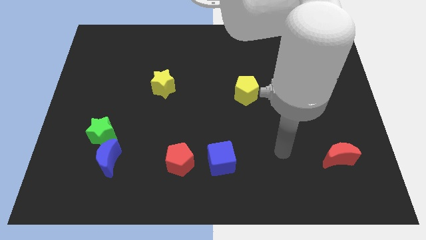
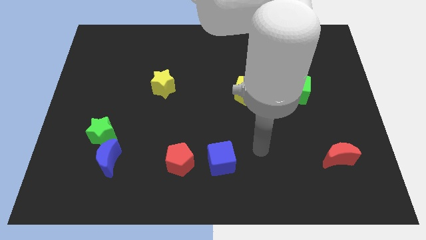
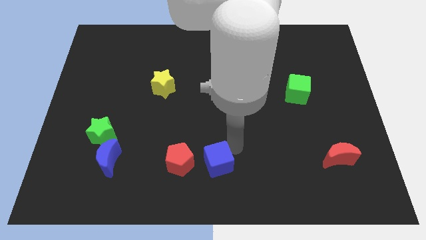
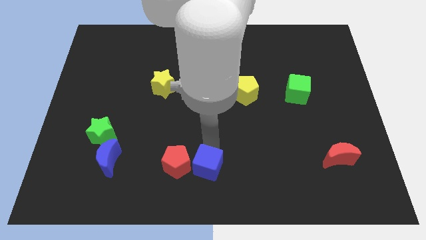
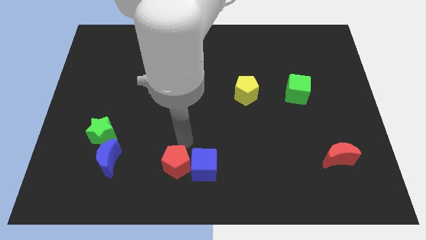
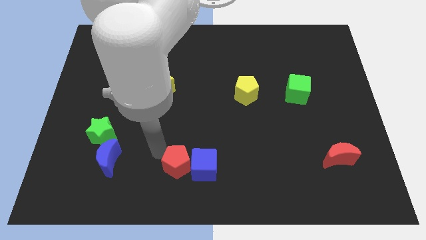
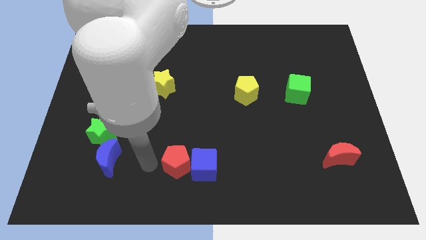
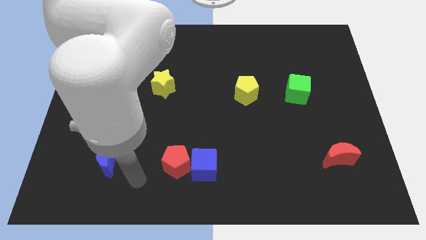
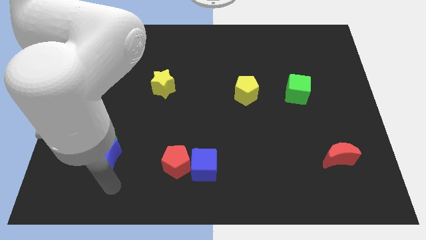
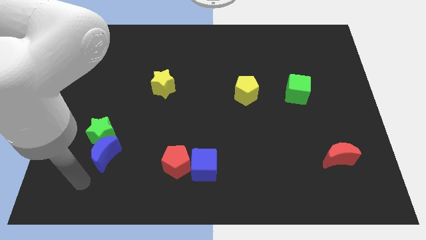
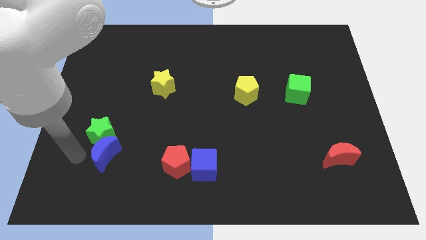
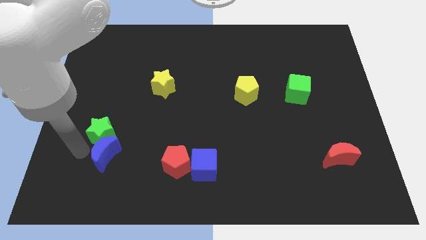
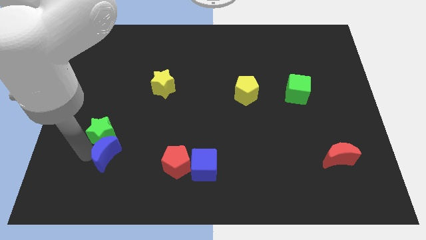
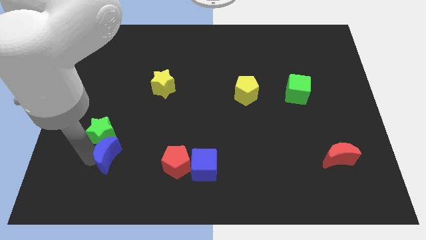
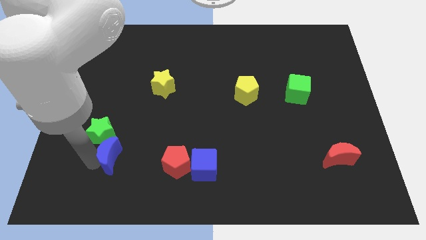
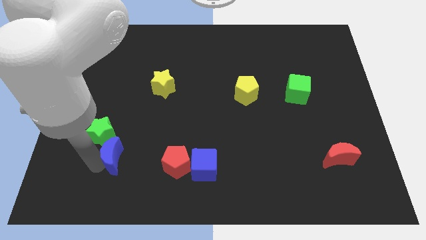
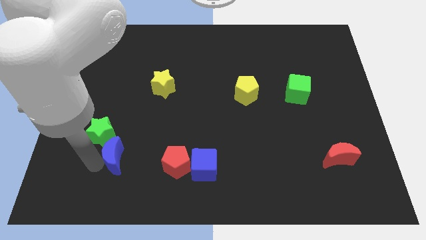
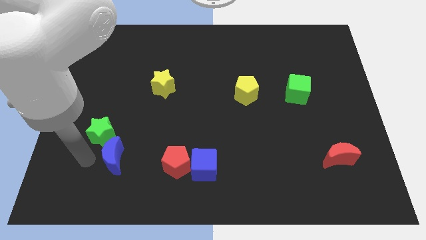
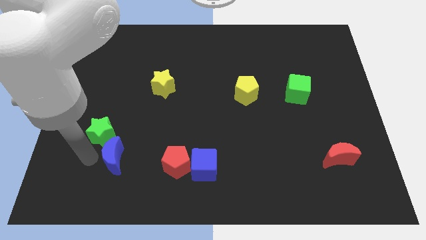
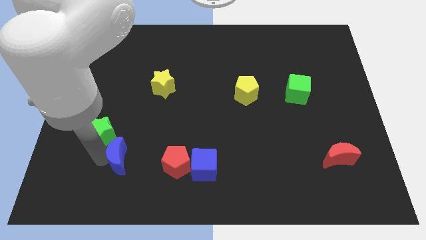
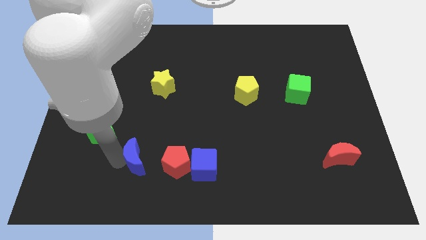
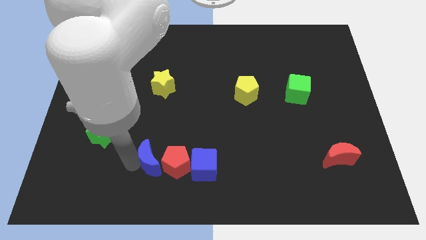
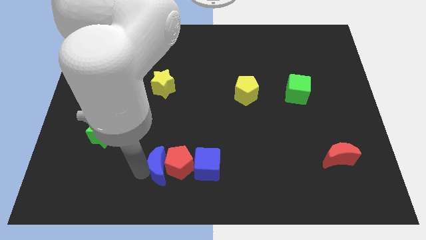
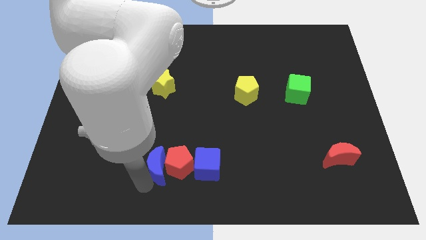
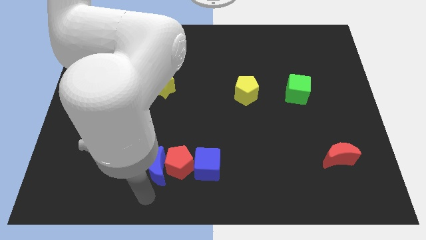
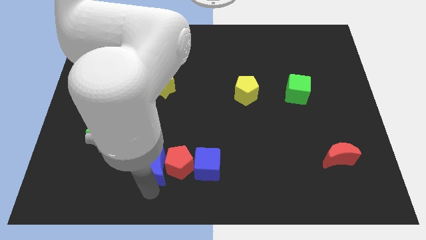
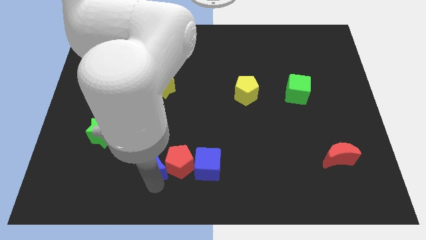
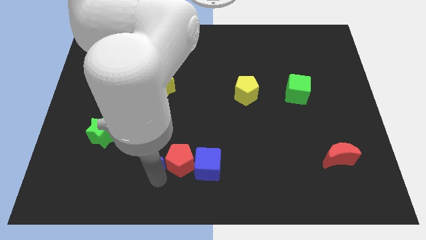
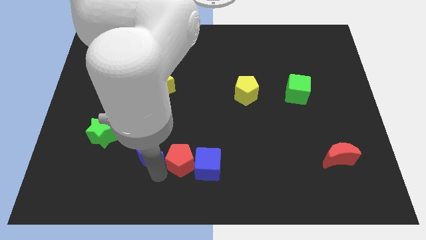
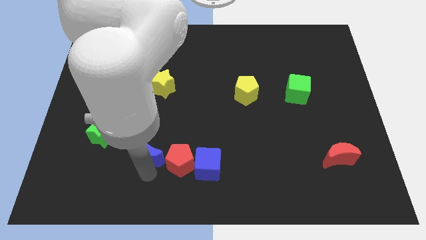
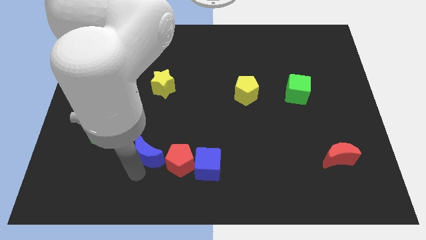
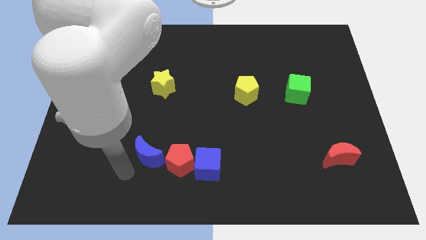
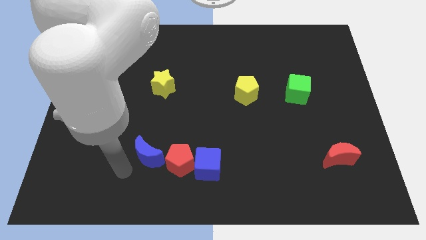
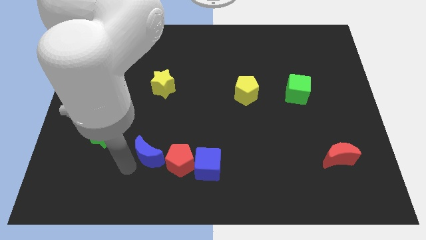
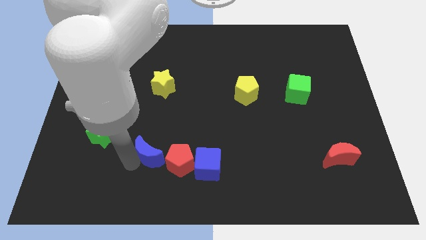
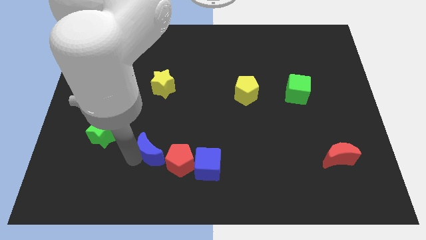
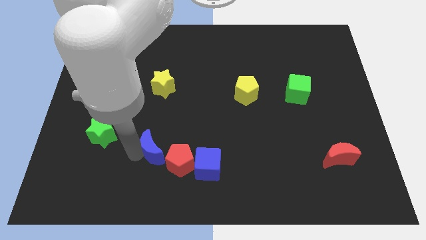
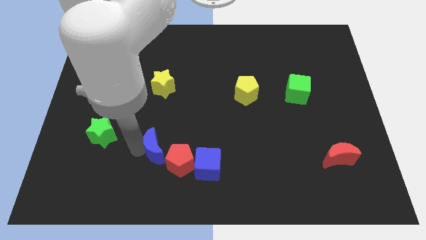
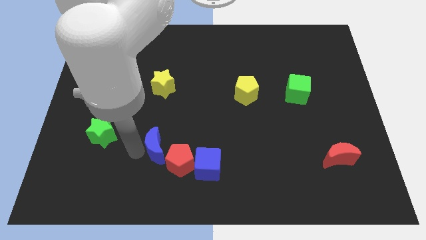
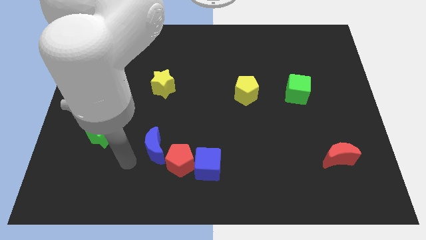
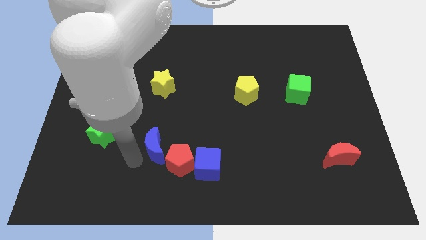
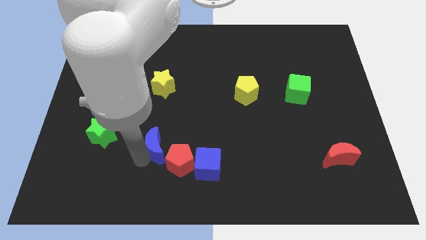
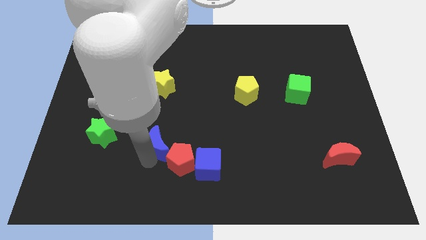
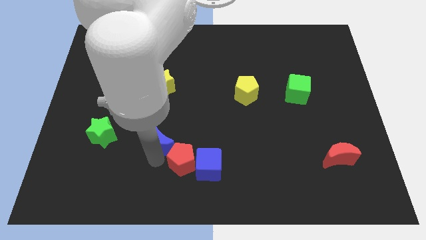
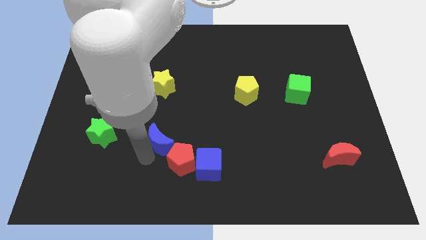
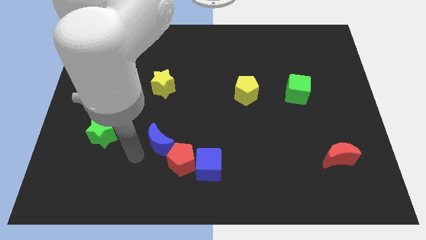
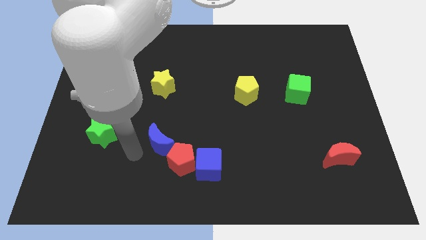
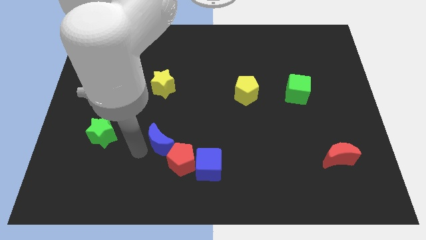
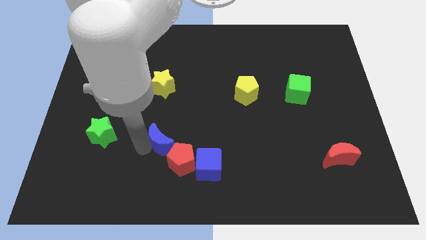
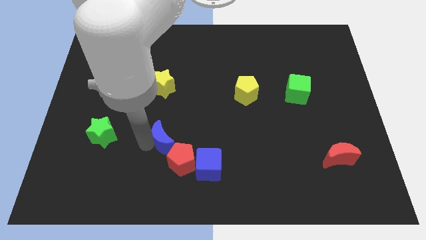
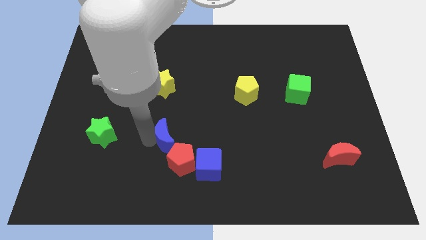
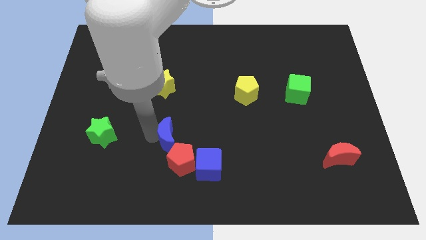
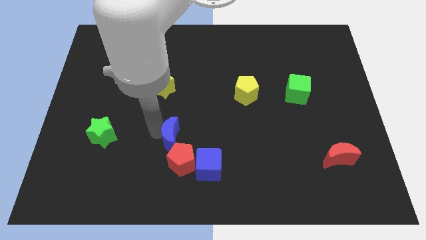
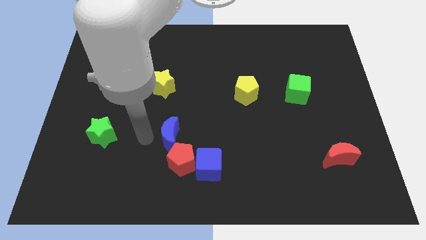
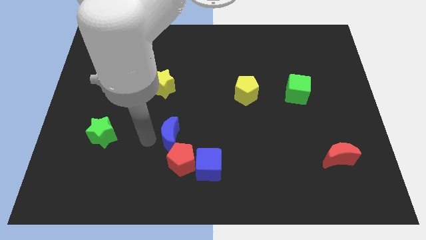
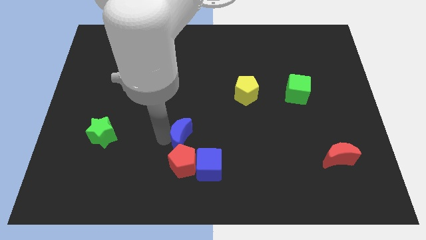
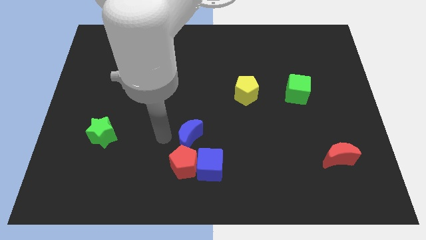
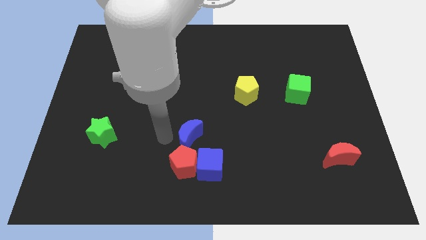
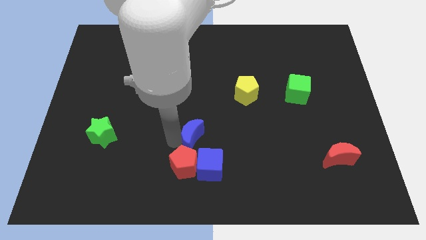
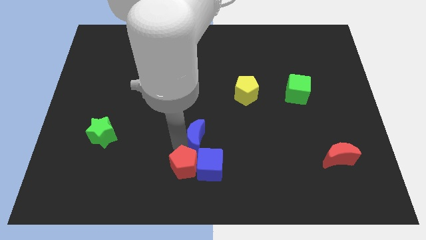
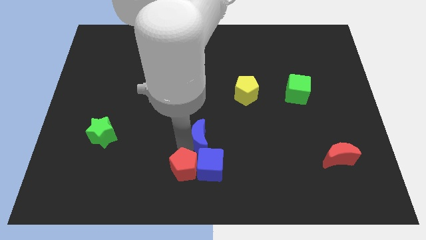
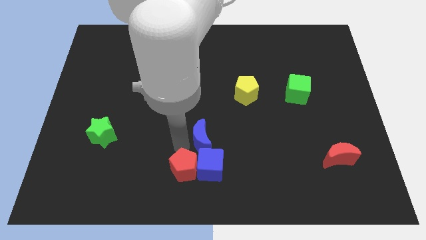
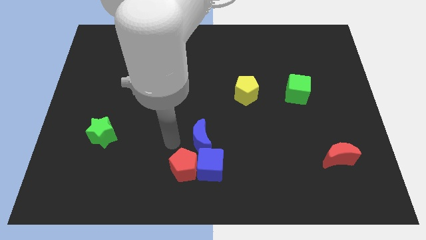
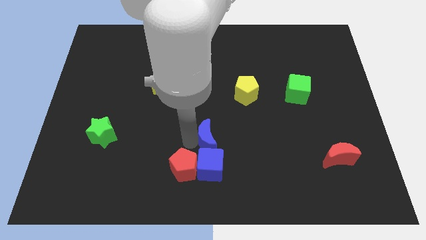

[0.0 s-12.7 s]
move the blue moon to the right

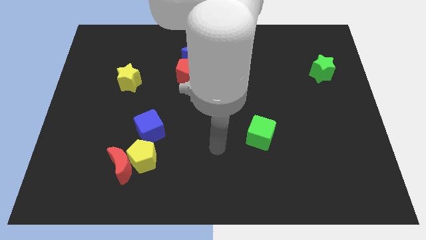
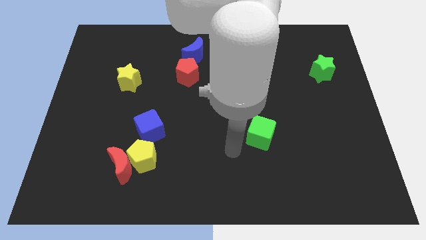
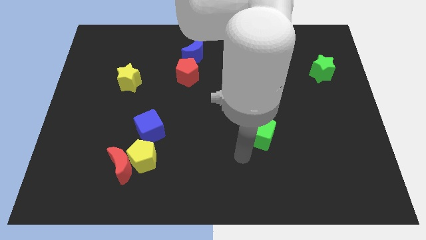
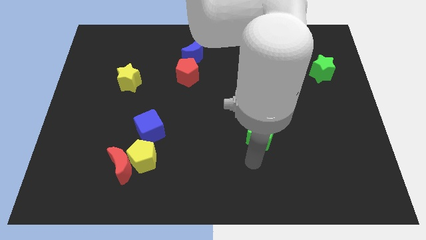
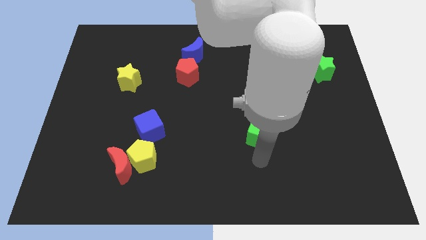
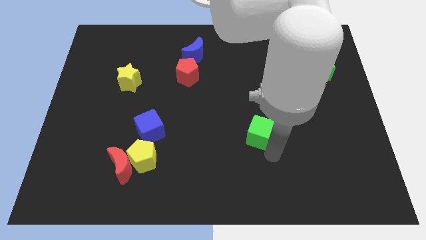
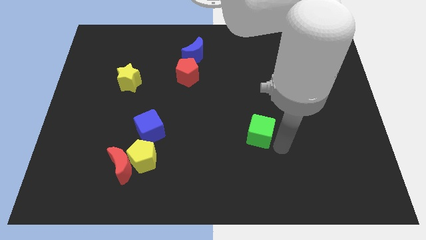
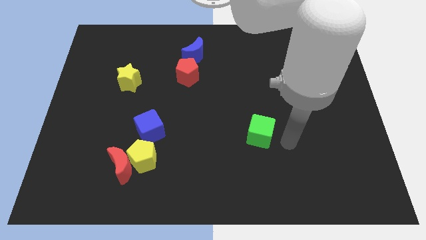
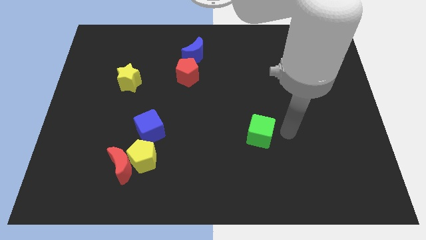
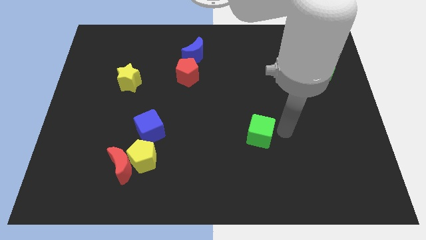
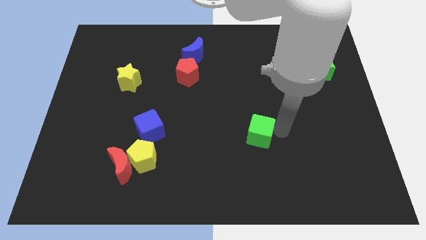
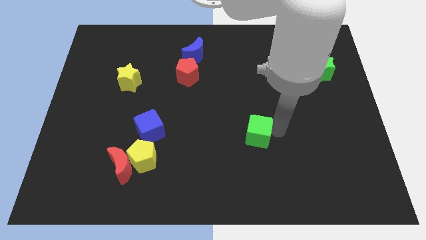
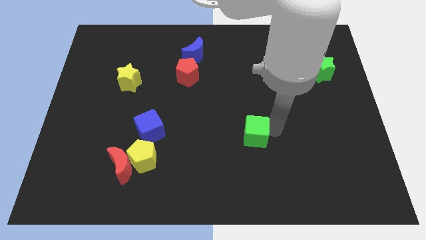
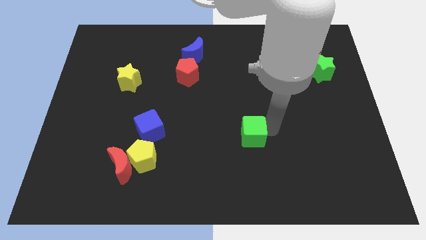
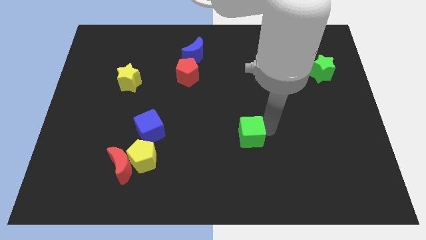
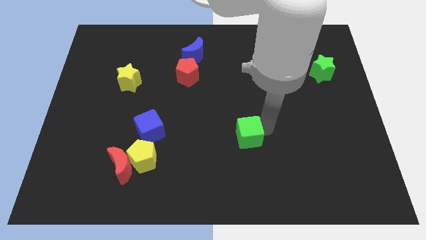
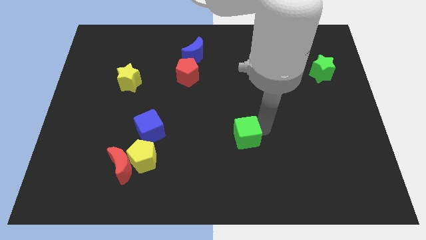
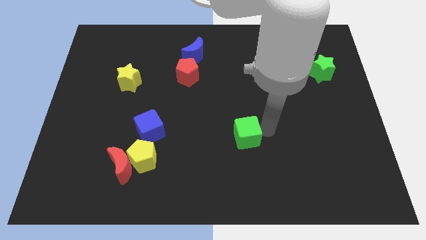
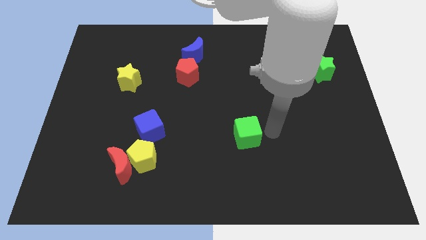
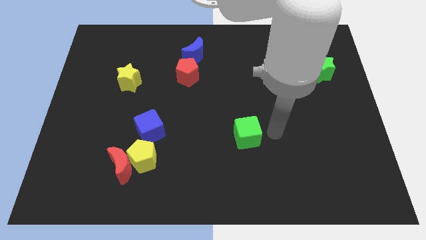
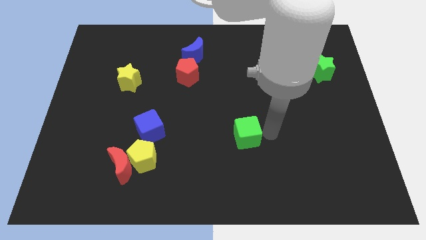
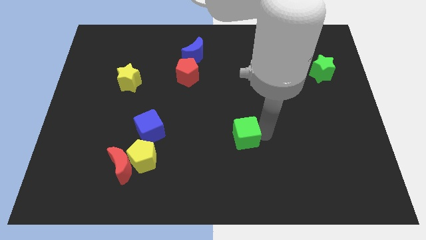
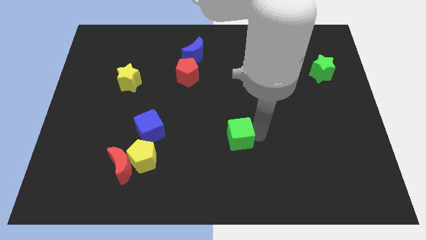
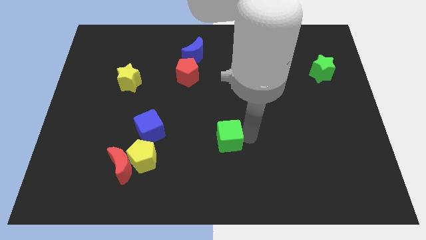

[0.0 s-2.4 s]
push the green cube left a bit
